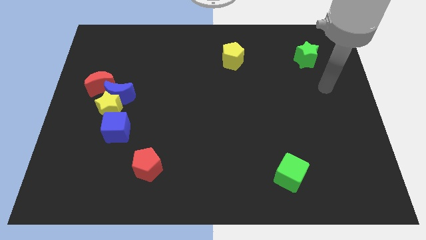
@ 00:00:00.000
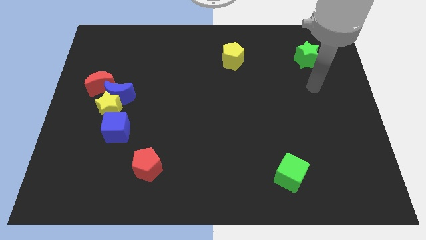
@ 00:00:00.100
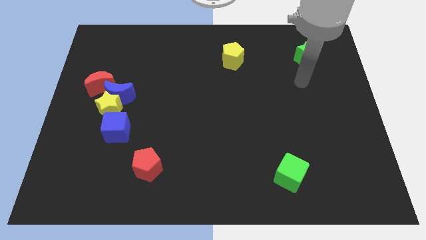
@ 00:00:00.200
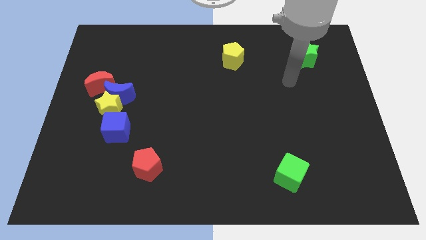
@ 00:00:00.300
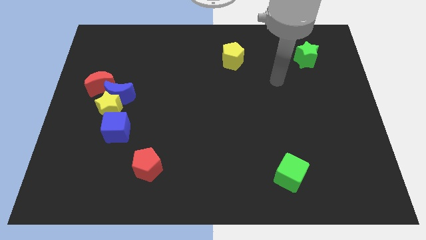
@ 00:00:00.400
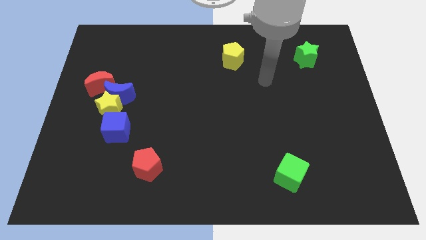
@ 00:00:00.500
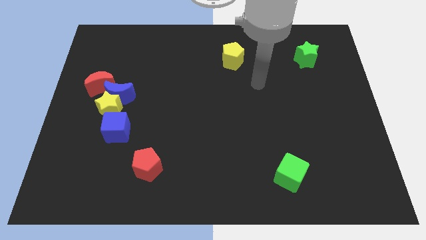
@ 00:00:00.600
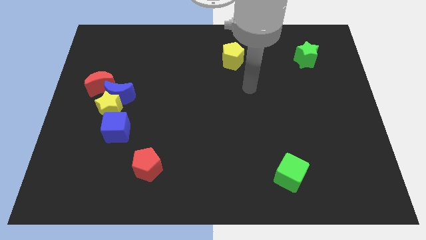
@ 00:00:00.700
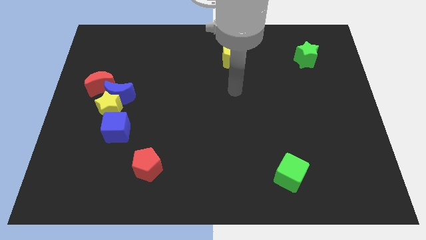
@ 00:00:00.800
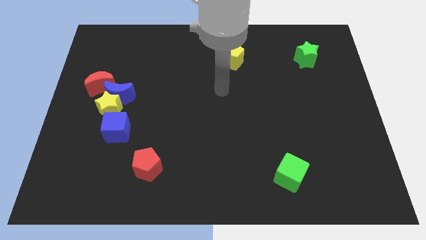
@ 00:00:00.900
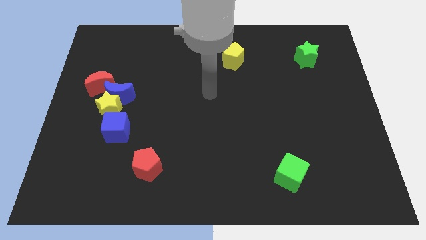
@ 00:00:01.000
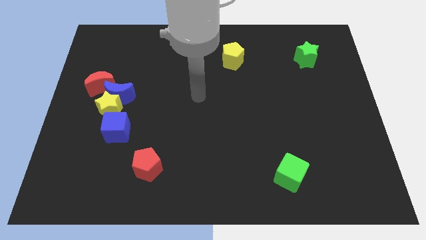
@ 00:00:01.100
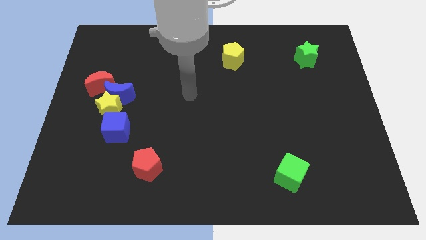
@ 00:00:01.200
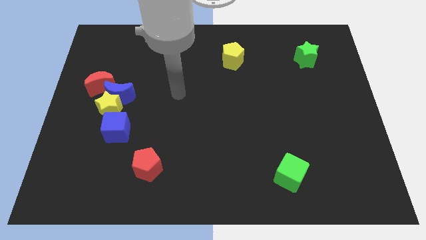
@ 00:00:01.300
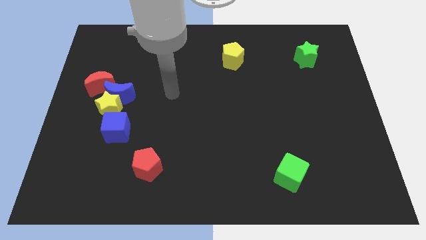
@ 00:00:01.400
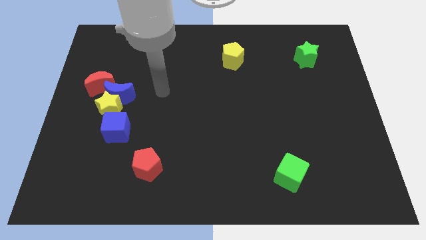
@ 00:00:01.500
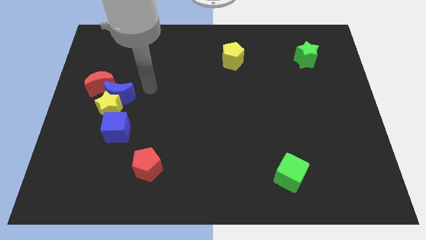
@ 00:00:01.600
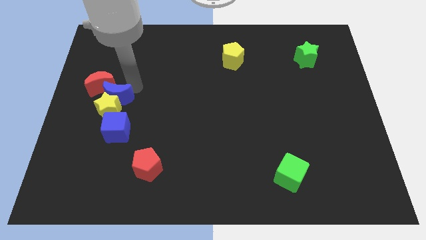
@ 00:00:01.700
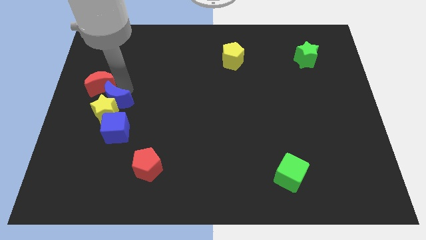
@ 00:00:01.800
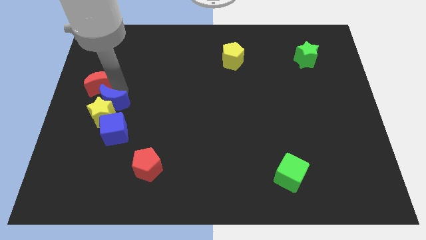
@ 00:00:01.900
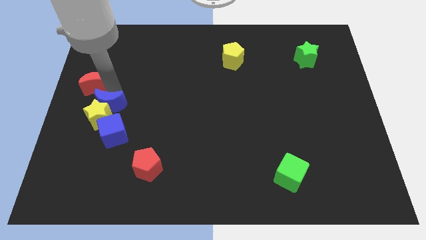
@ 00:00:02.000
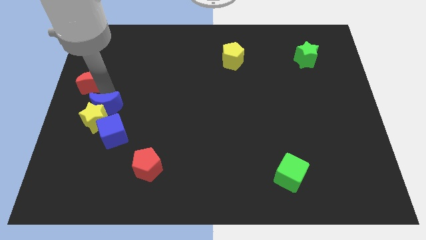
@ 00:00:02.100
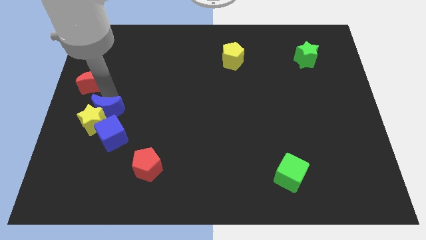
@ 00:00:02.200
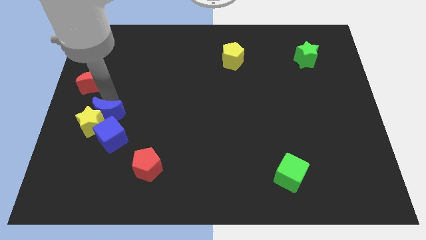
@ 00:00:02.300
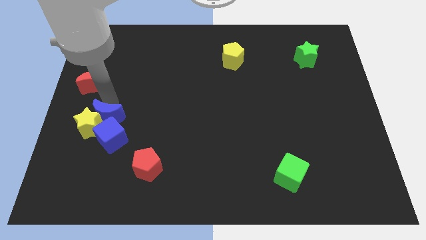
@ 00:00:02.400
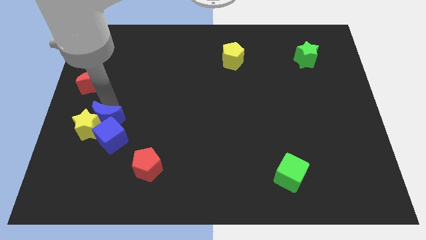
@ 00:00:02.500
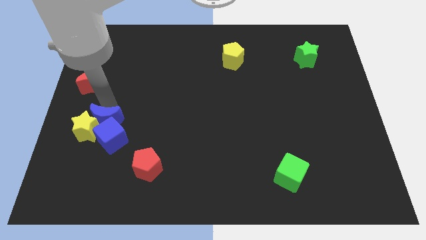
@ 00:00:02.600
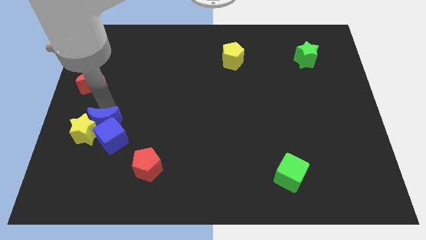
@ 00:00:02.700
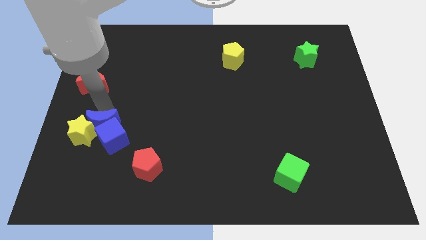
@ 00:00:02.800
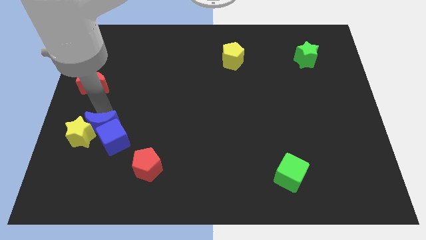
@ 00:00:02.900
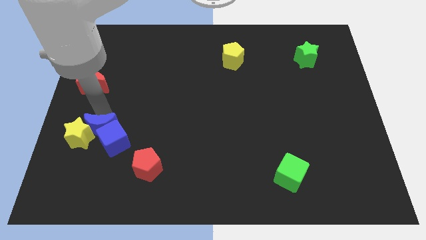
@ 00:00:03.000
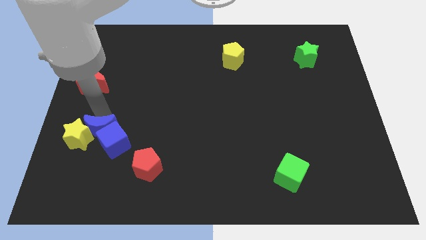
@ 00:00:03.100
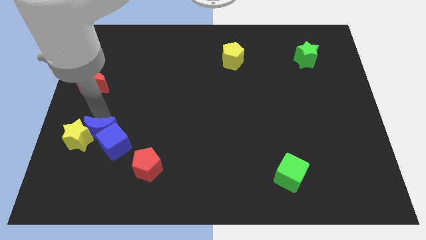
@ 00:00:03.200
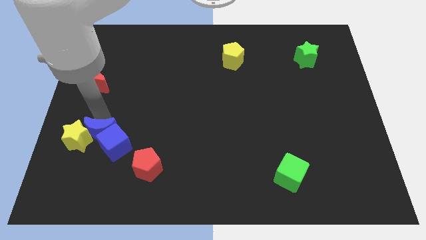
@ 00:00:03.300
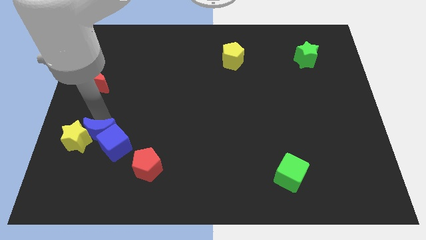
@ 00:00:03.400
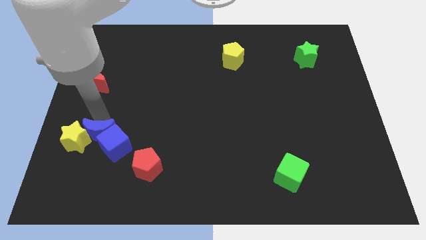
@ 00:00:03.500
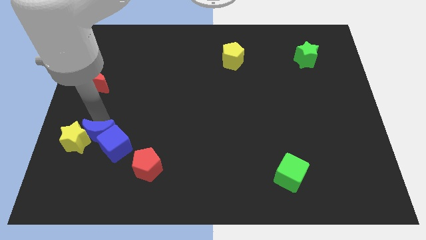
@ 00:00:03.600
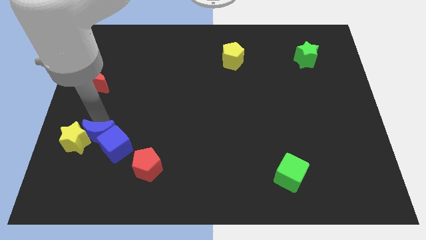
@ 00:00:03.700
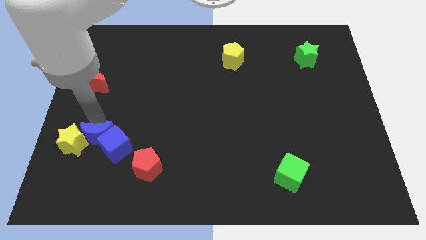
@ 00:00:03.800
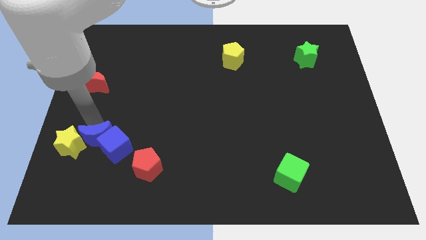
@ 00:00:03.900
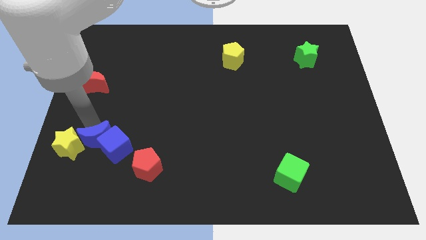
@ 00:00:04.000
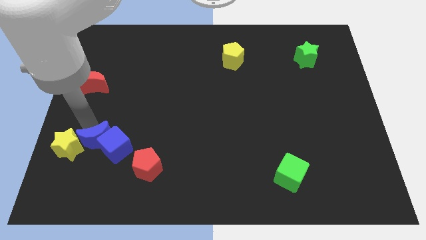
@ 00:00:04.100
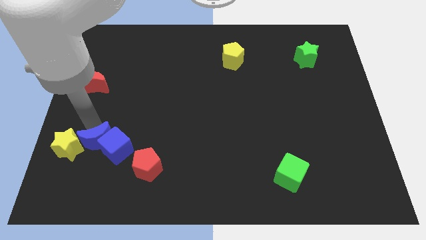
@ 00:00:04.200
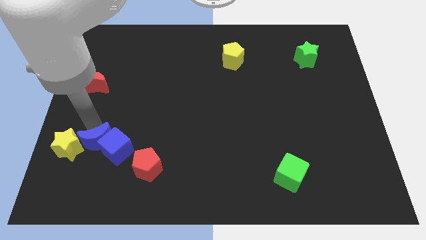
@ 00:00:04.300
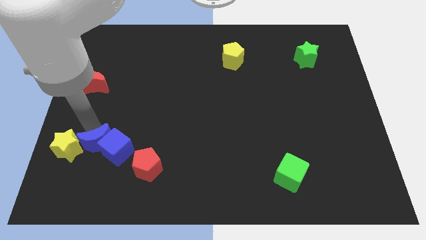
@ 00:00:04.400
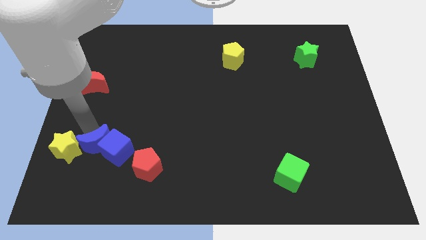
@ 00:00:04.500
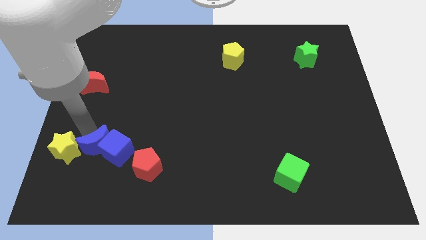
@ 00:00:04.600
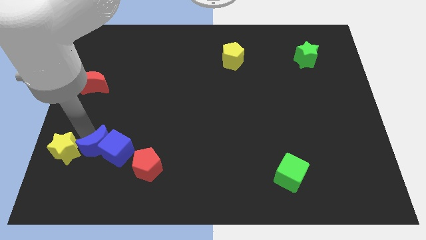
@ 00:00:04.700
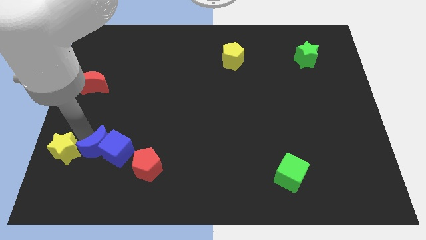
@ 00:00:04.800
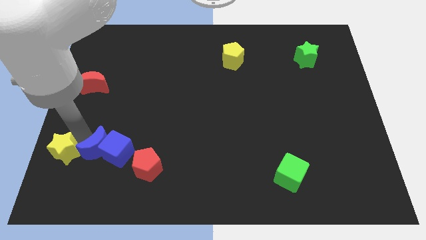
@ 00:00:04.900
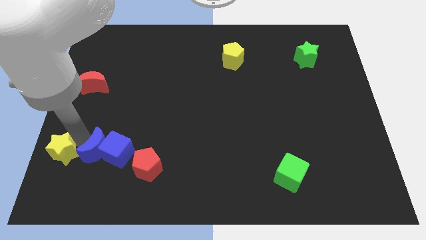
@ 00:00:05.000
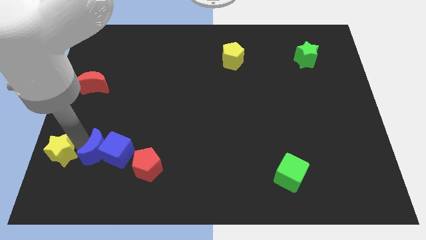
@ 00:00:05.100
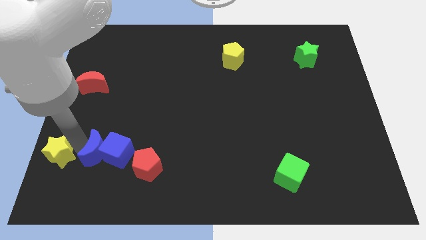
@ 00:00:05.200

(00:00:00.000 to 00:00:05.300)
separate the yellow star from the group of blocks

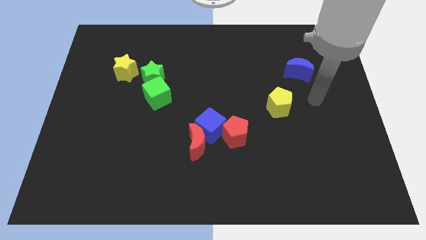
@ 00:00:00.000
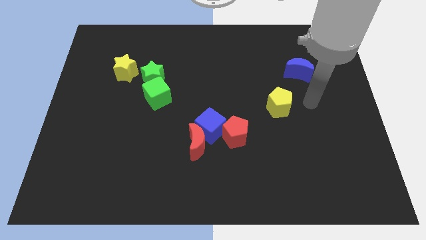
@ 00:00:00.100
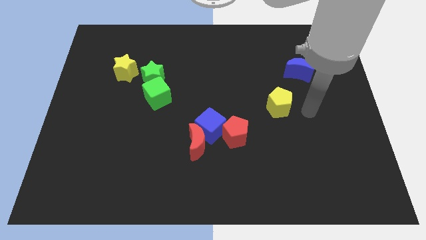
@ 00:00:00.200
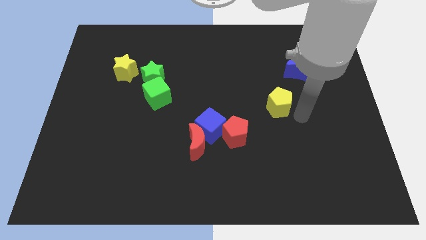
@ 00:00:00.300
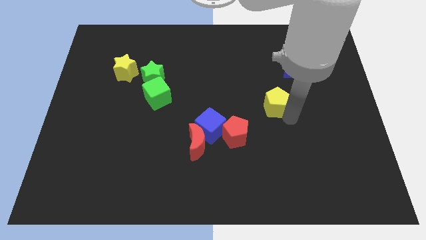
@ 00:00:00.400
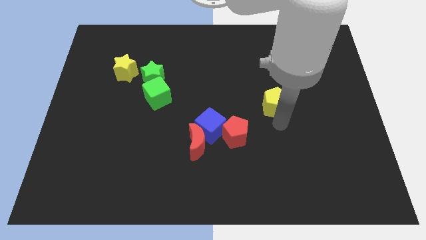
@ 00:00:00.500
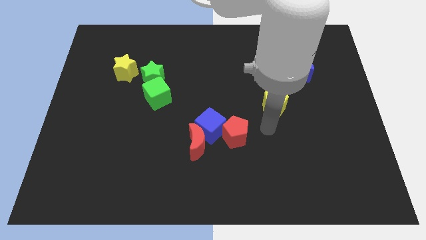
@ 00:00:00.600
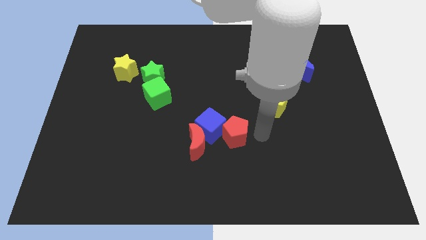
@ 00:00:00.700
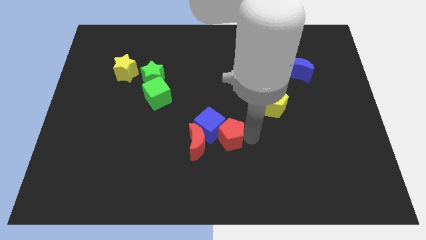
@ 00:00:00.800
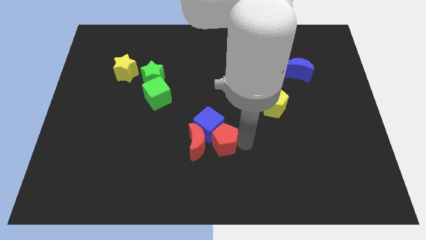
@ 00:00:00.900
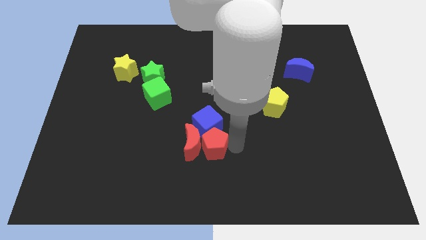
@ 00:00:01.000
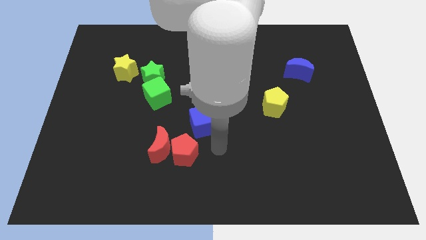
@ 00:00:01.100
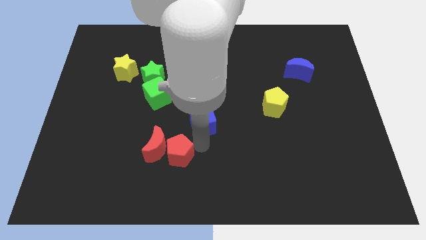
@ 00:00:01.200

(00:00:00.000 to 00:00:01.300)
pull the blue cube apart from the red moon and red pentagon

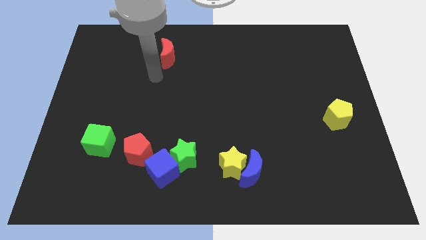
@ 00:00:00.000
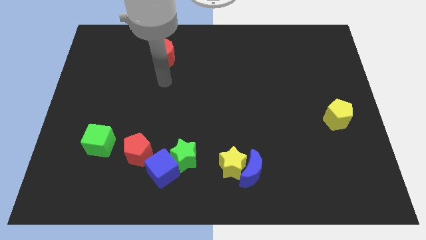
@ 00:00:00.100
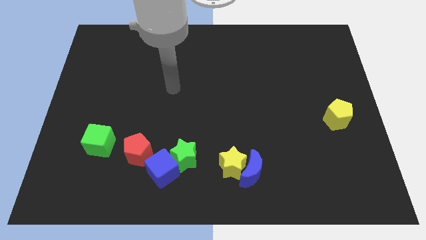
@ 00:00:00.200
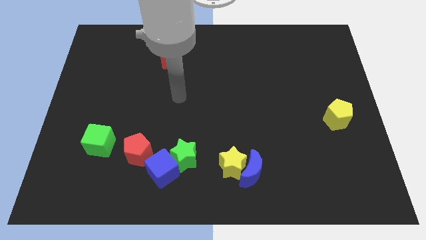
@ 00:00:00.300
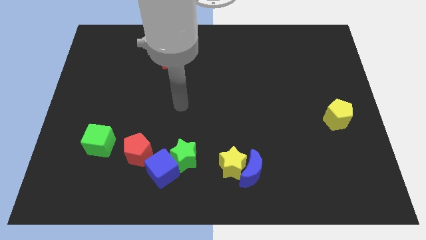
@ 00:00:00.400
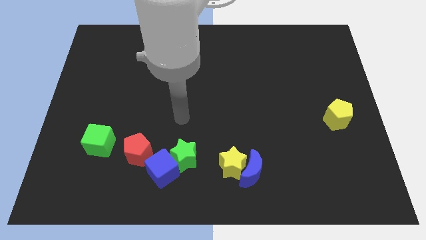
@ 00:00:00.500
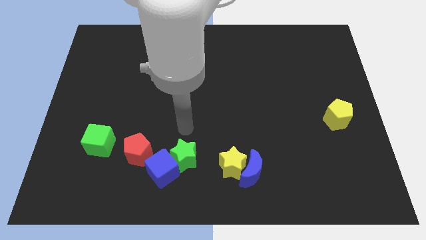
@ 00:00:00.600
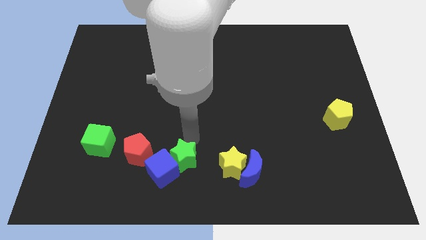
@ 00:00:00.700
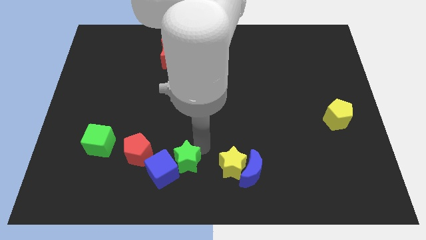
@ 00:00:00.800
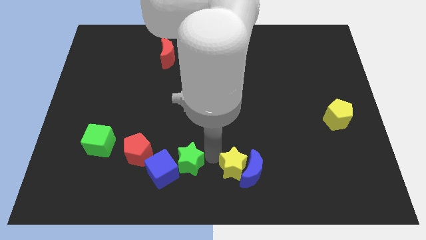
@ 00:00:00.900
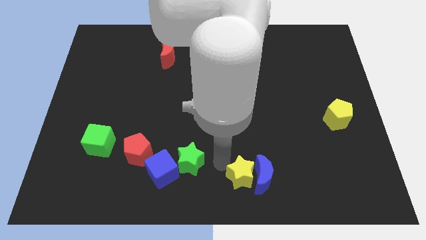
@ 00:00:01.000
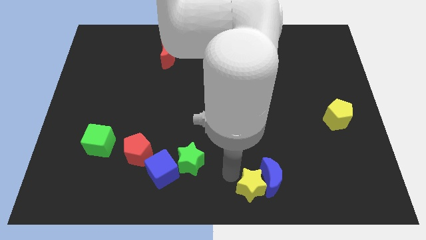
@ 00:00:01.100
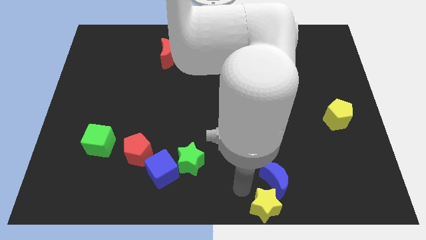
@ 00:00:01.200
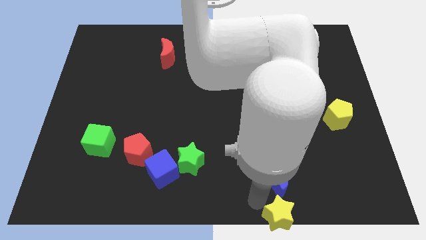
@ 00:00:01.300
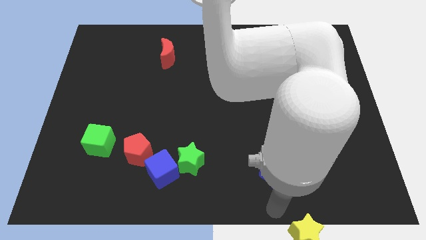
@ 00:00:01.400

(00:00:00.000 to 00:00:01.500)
pull the blue moon apart from the yellow star

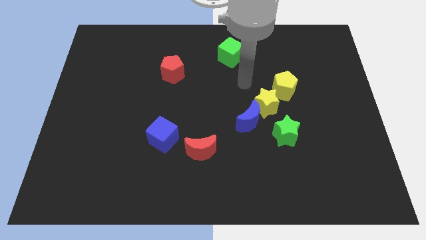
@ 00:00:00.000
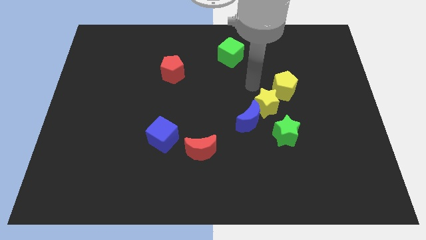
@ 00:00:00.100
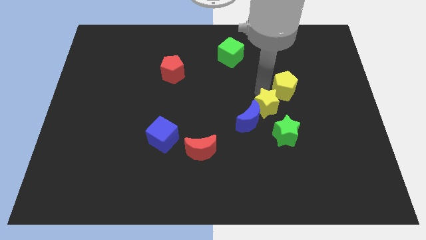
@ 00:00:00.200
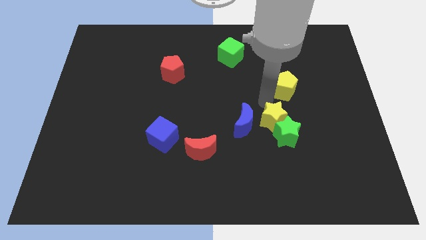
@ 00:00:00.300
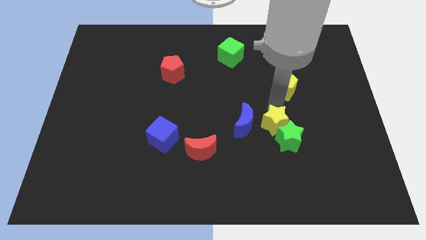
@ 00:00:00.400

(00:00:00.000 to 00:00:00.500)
pull the yellow pentagon apart from the yellow star

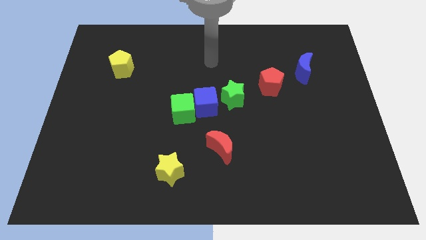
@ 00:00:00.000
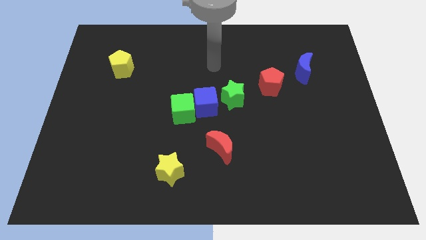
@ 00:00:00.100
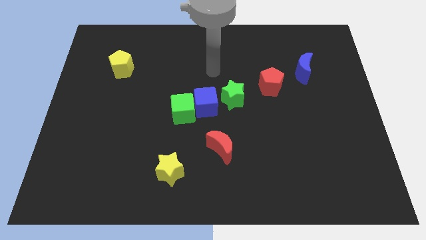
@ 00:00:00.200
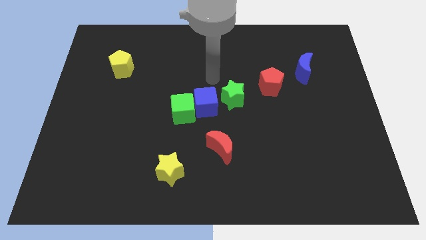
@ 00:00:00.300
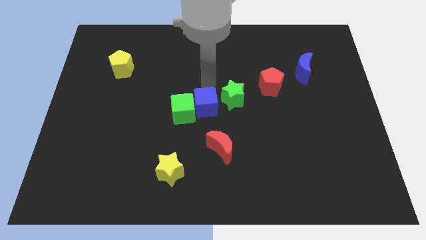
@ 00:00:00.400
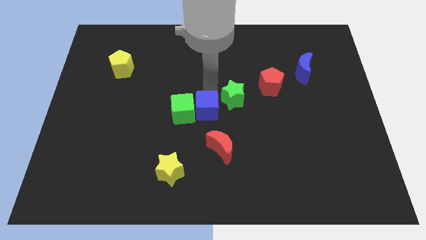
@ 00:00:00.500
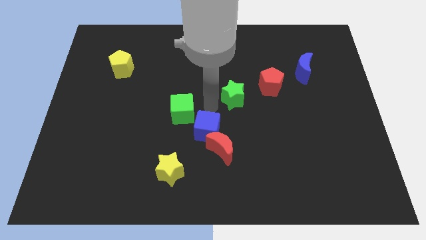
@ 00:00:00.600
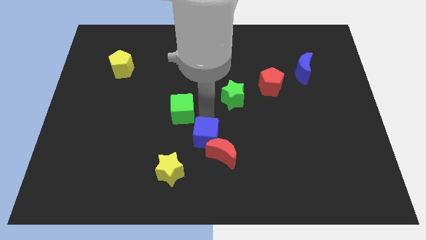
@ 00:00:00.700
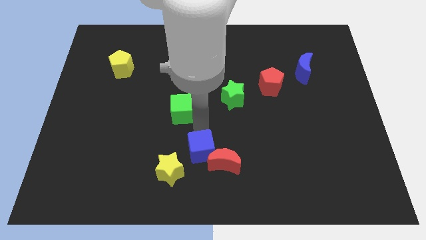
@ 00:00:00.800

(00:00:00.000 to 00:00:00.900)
separate the green cube from the blue cube
